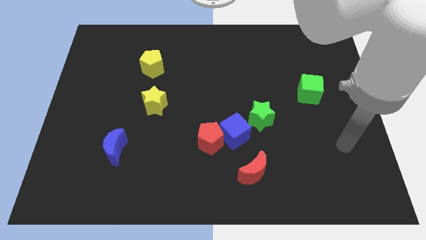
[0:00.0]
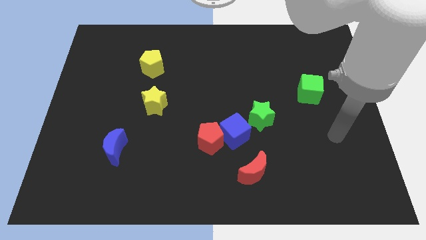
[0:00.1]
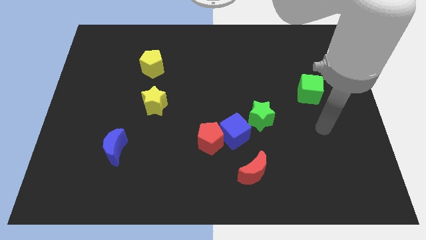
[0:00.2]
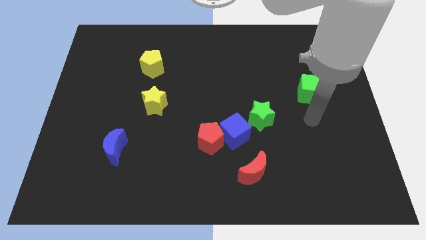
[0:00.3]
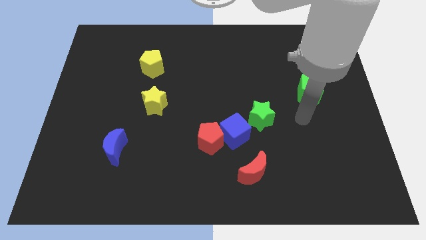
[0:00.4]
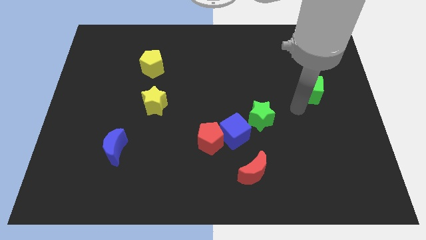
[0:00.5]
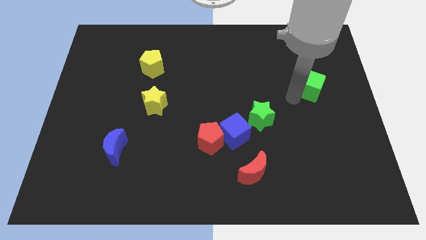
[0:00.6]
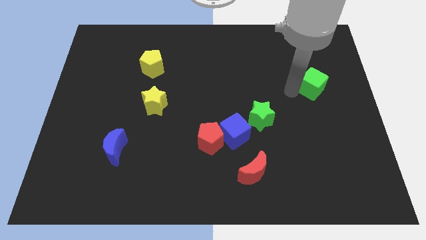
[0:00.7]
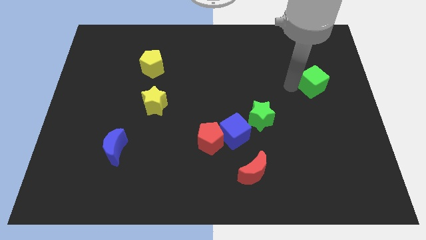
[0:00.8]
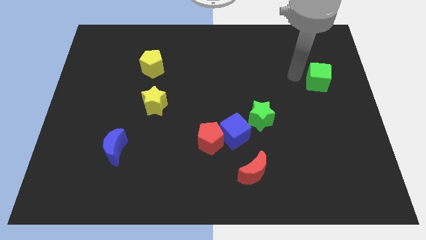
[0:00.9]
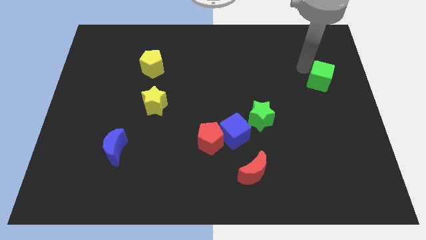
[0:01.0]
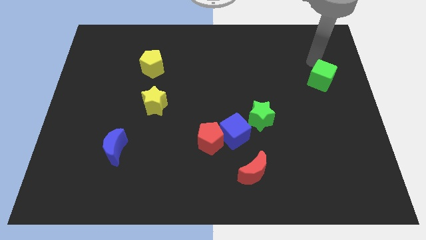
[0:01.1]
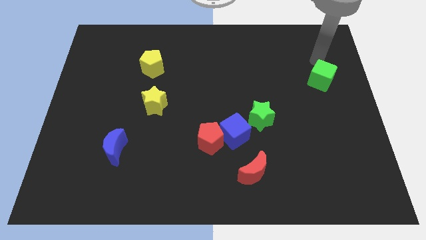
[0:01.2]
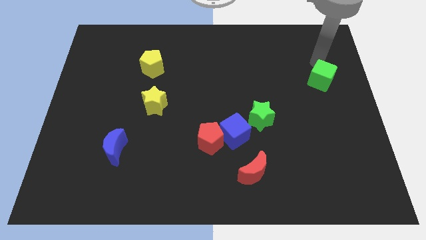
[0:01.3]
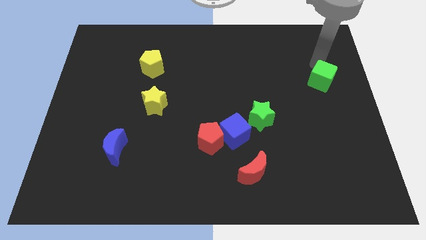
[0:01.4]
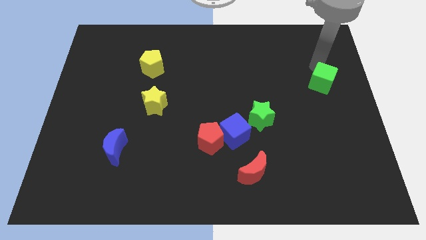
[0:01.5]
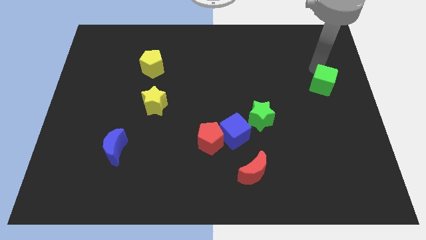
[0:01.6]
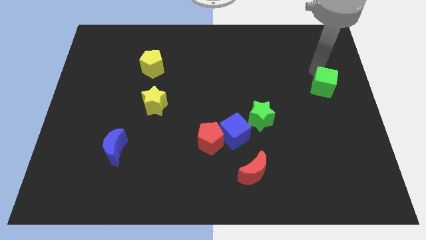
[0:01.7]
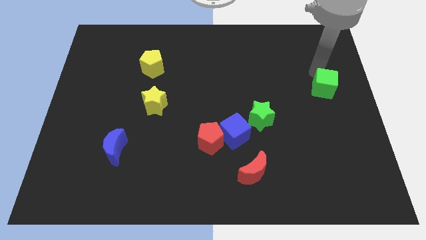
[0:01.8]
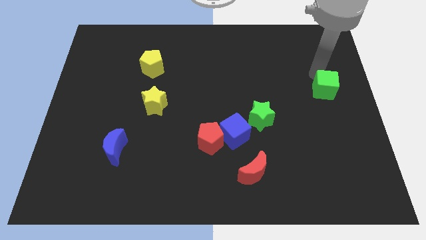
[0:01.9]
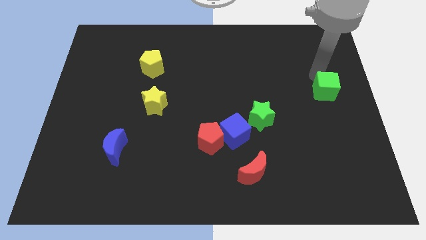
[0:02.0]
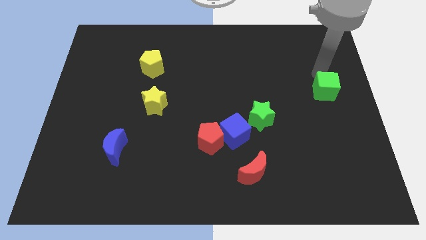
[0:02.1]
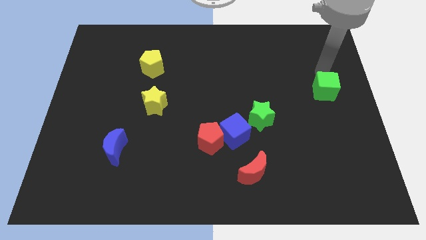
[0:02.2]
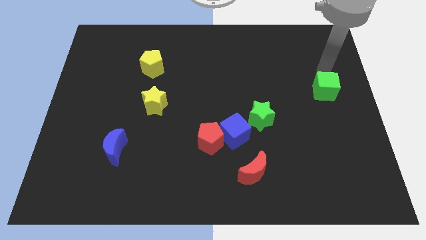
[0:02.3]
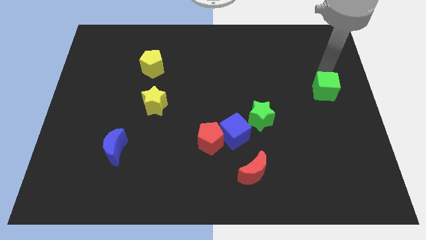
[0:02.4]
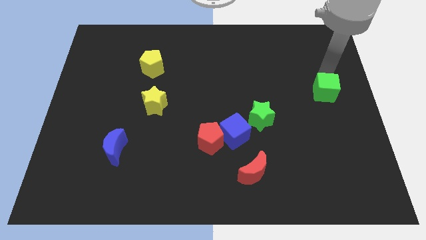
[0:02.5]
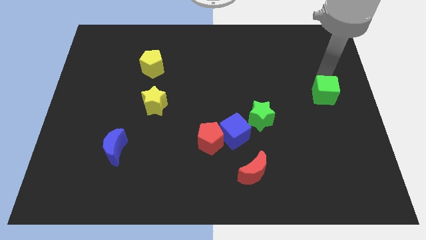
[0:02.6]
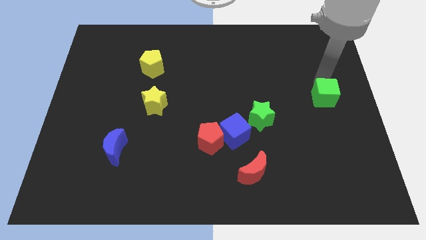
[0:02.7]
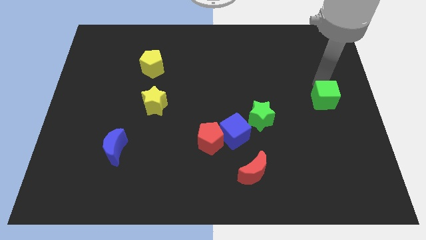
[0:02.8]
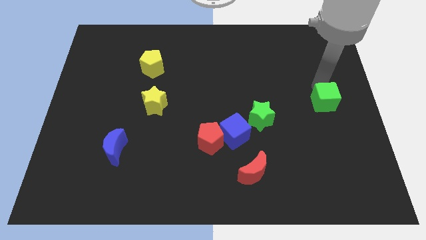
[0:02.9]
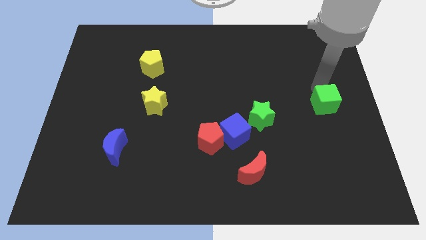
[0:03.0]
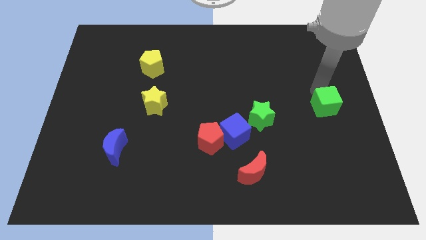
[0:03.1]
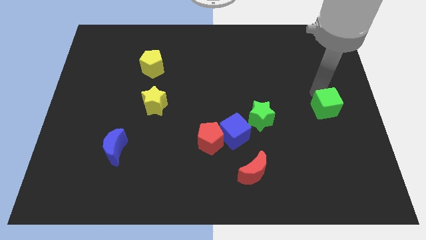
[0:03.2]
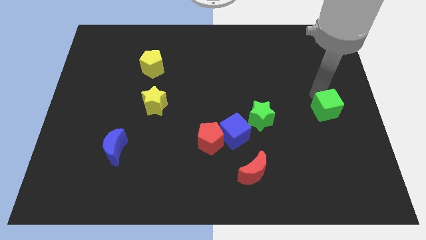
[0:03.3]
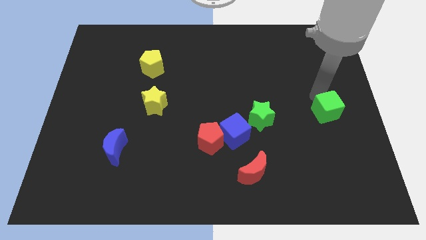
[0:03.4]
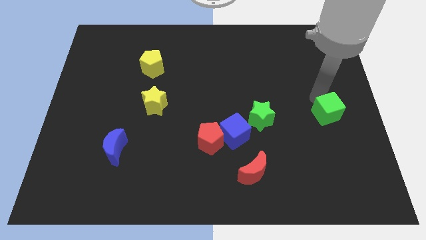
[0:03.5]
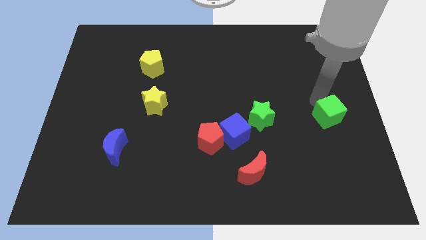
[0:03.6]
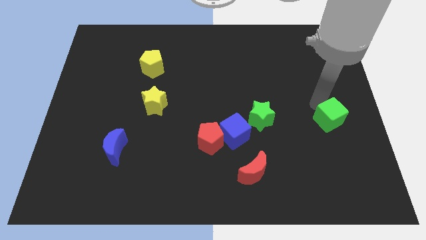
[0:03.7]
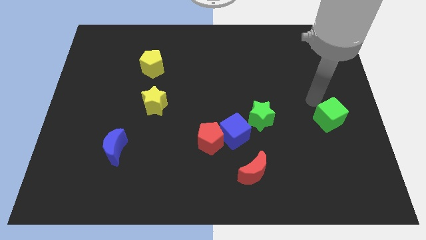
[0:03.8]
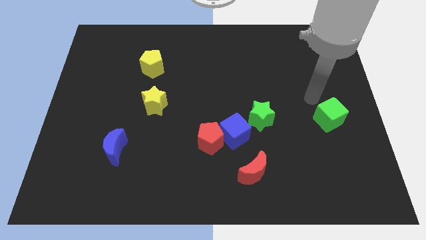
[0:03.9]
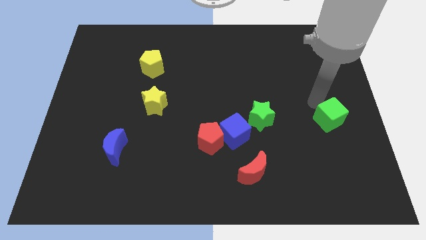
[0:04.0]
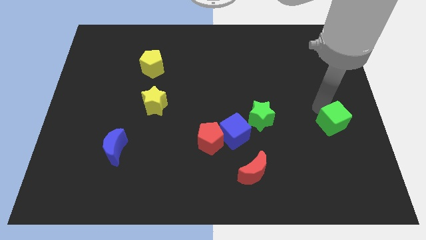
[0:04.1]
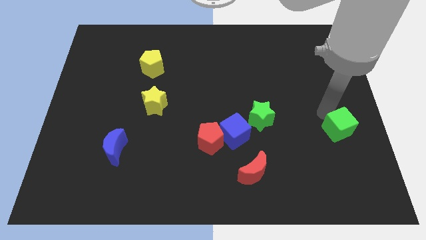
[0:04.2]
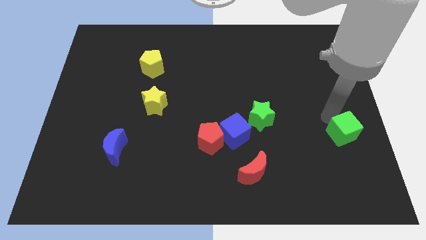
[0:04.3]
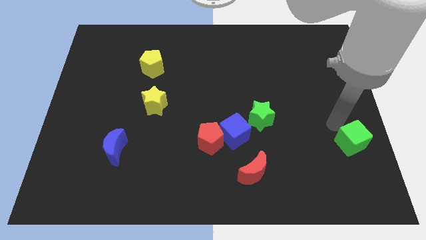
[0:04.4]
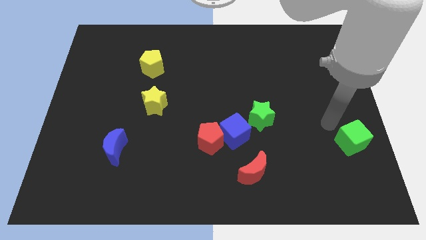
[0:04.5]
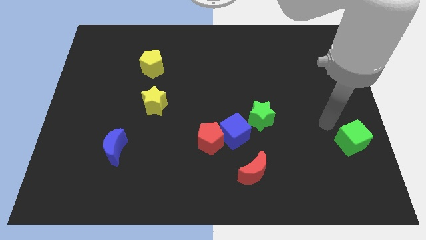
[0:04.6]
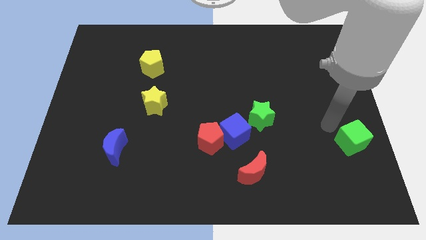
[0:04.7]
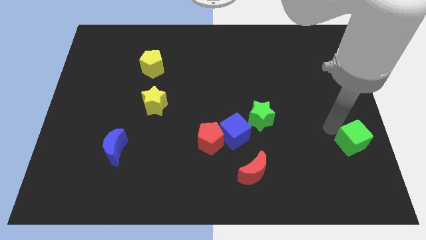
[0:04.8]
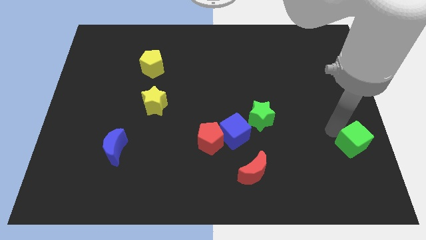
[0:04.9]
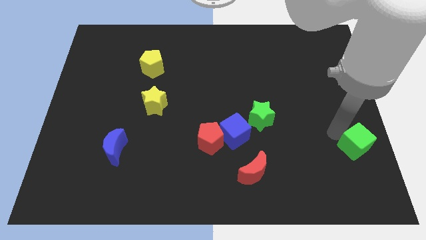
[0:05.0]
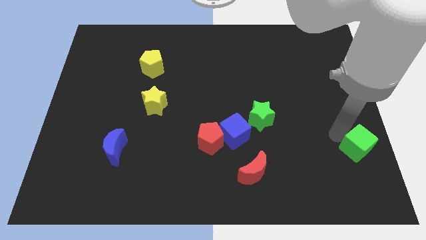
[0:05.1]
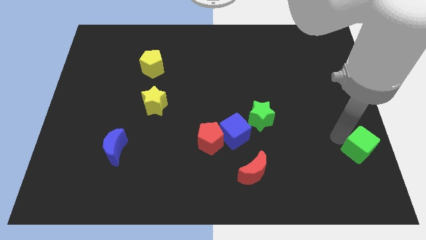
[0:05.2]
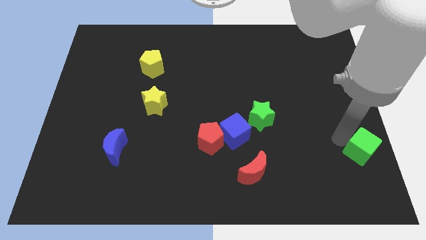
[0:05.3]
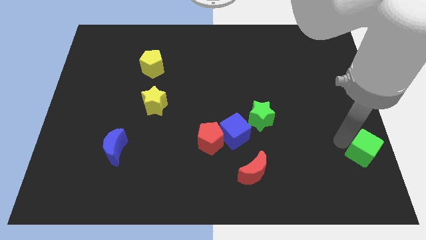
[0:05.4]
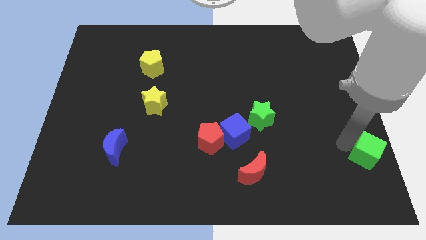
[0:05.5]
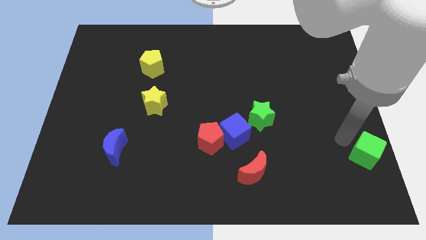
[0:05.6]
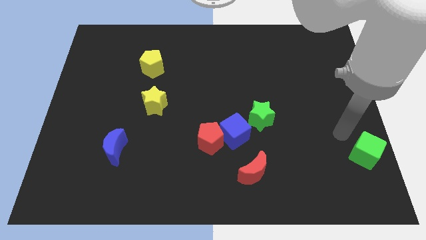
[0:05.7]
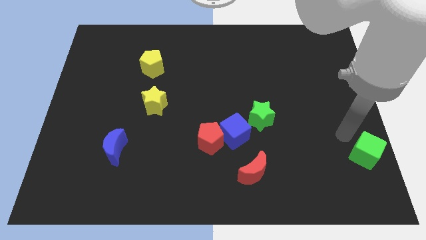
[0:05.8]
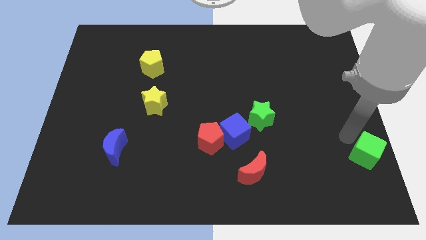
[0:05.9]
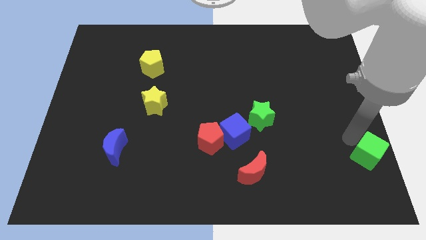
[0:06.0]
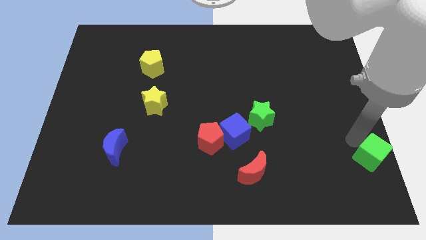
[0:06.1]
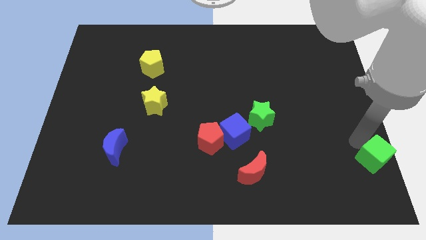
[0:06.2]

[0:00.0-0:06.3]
move the green cube to the bottom right of the board

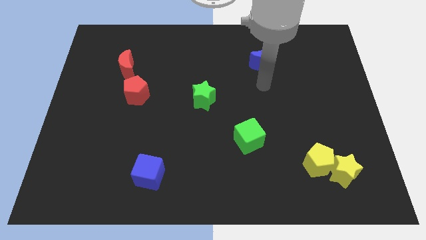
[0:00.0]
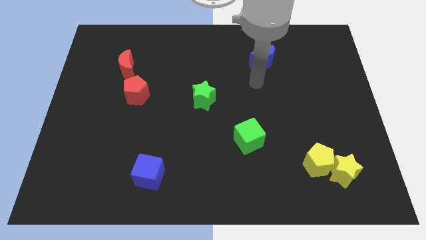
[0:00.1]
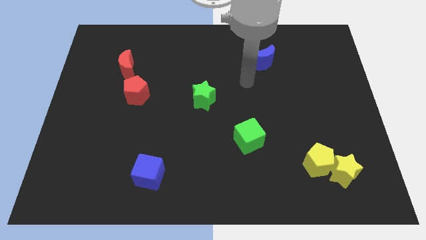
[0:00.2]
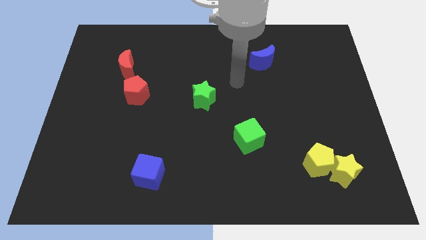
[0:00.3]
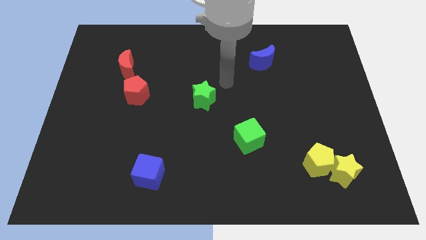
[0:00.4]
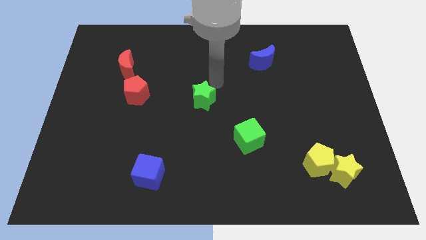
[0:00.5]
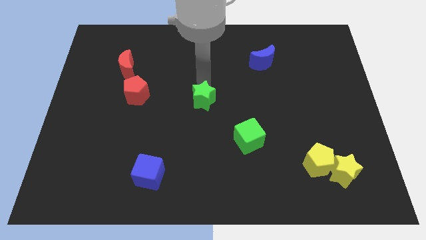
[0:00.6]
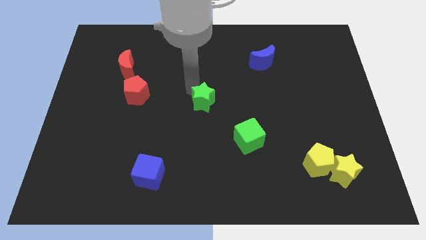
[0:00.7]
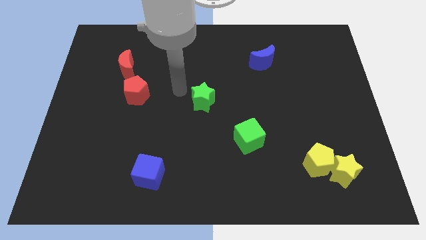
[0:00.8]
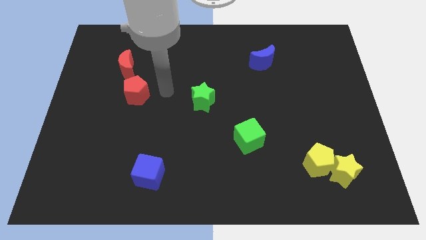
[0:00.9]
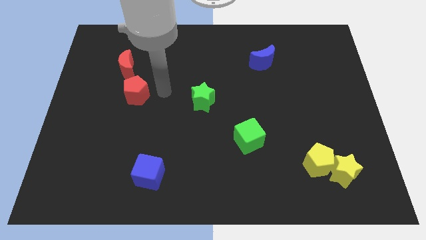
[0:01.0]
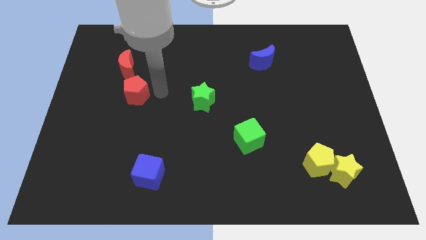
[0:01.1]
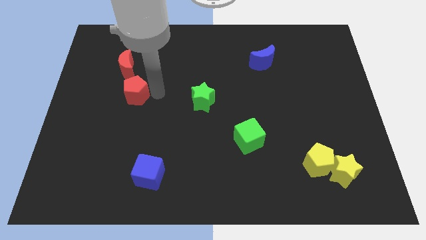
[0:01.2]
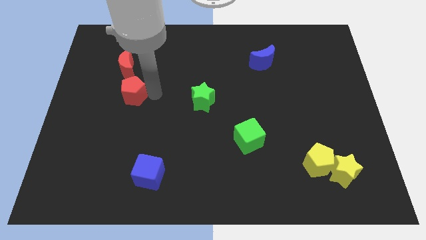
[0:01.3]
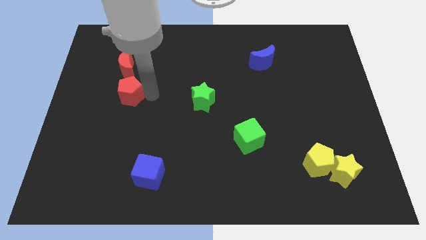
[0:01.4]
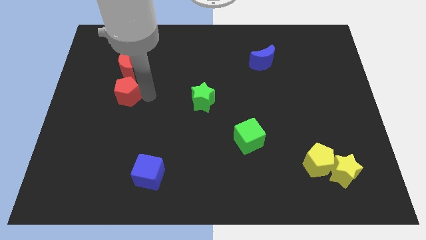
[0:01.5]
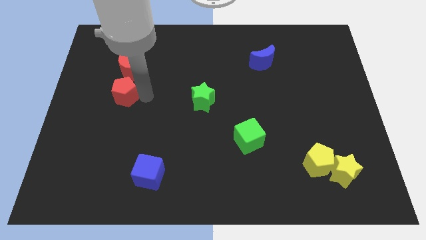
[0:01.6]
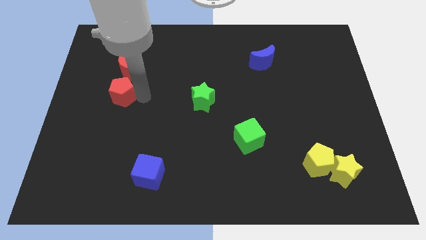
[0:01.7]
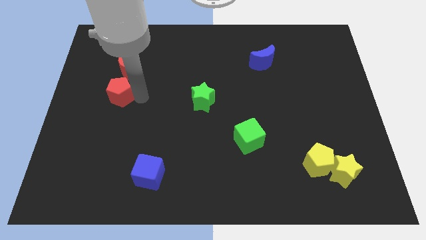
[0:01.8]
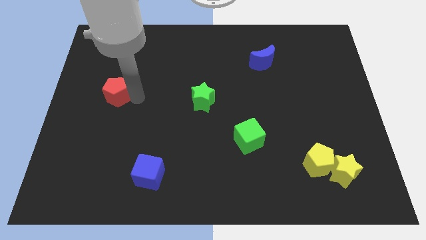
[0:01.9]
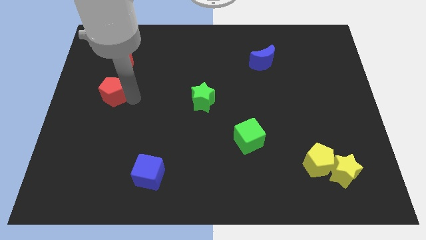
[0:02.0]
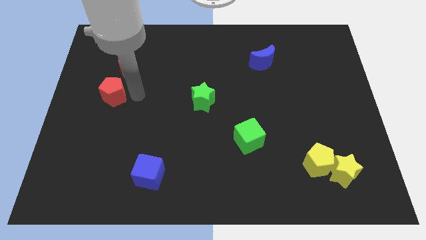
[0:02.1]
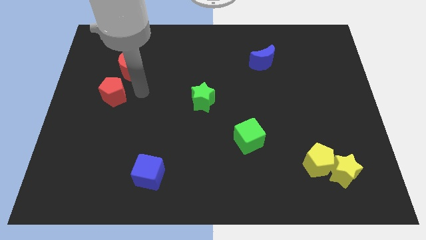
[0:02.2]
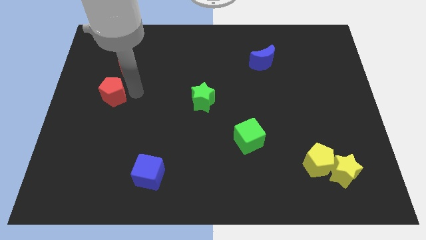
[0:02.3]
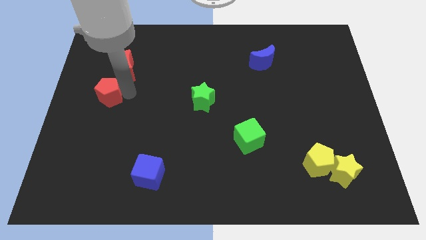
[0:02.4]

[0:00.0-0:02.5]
put the red pentagon to the center left
